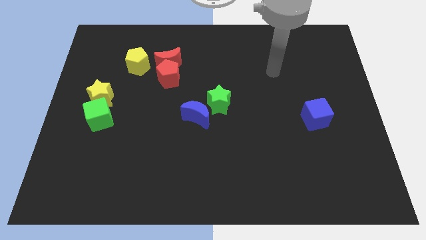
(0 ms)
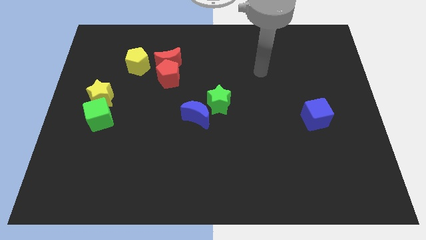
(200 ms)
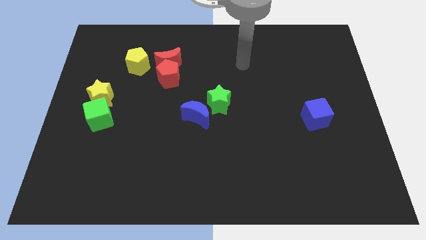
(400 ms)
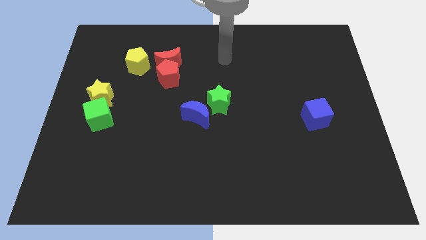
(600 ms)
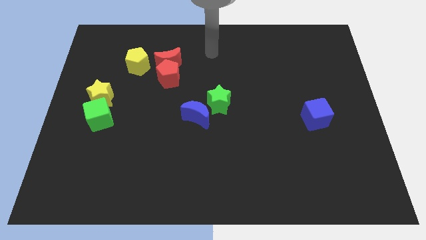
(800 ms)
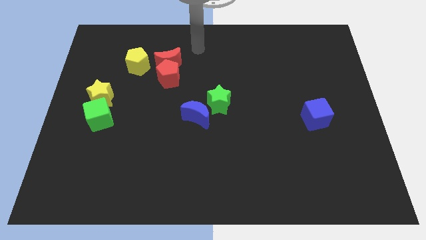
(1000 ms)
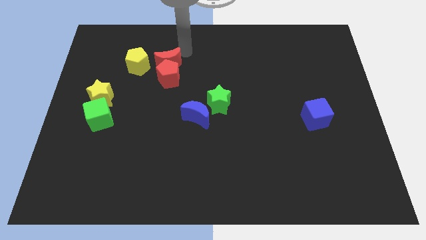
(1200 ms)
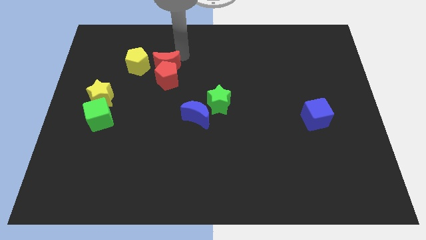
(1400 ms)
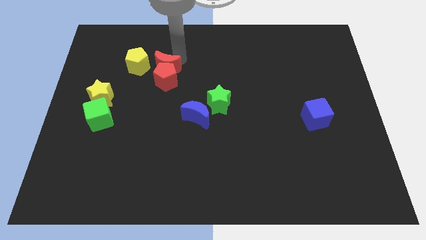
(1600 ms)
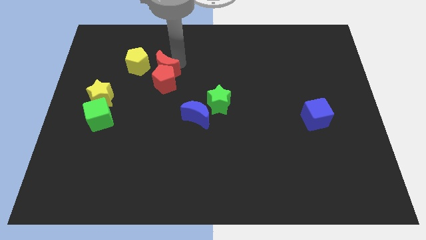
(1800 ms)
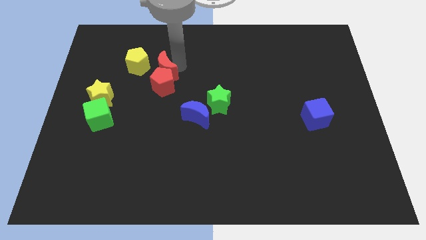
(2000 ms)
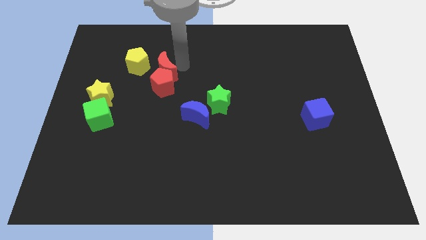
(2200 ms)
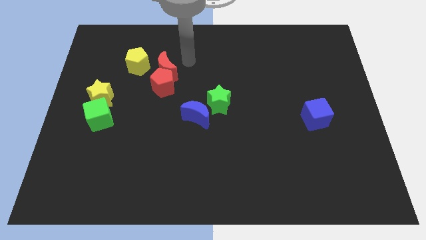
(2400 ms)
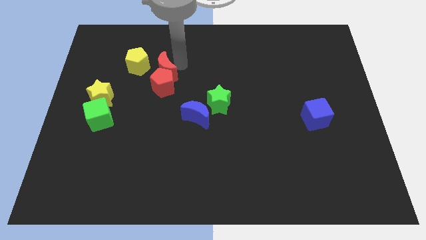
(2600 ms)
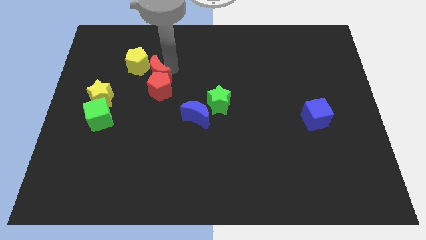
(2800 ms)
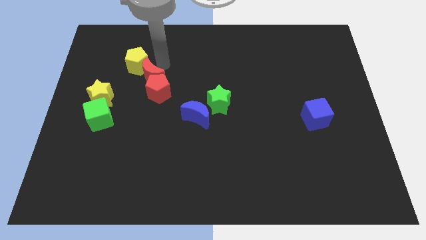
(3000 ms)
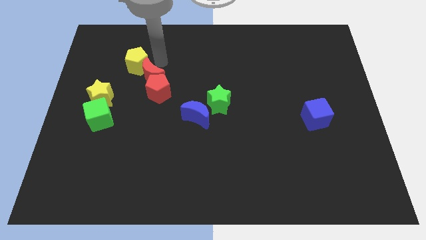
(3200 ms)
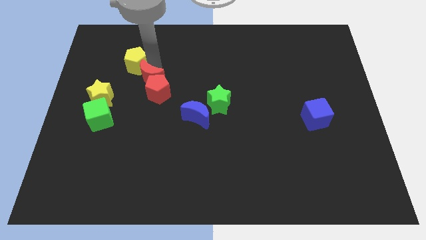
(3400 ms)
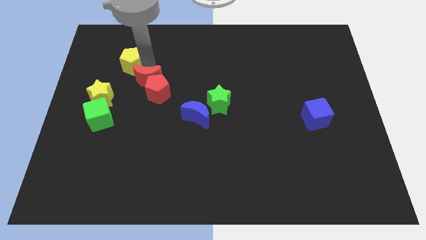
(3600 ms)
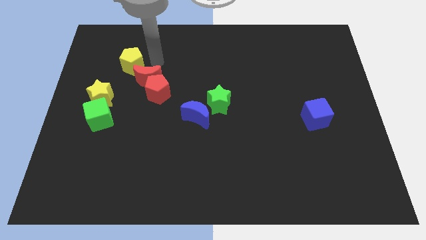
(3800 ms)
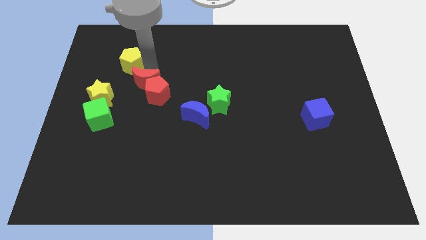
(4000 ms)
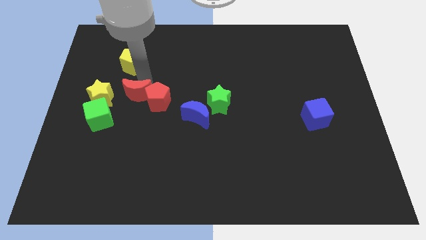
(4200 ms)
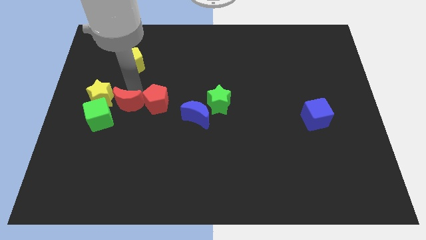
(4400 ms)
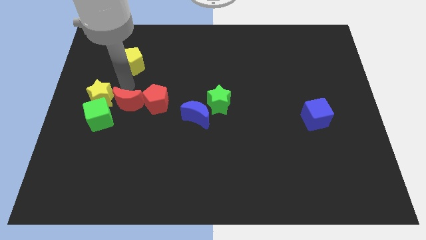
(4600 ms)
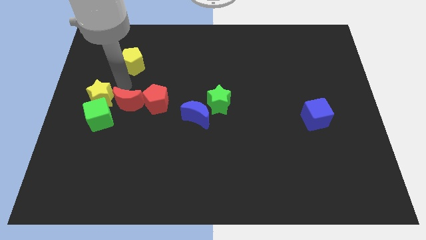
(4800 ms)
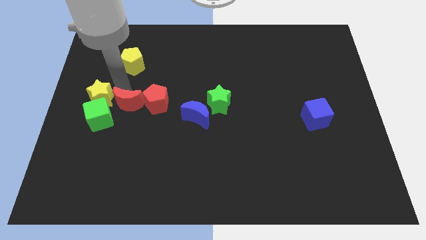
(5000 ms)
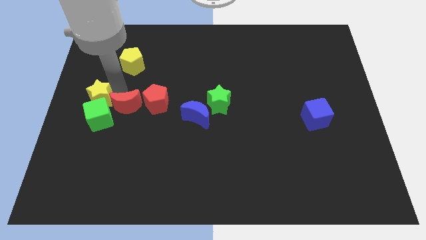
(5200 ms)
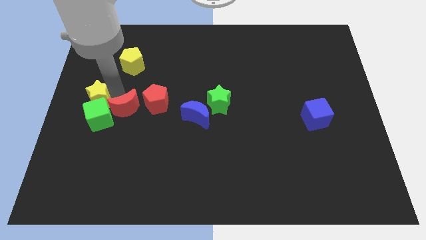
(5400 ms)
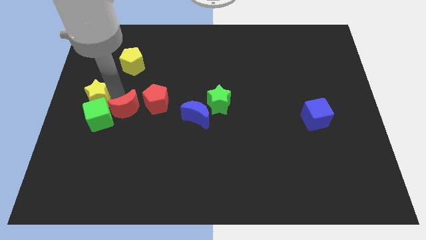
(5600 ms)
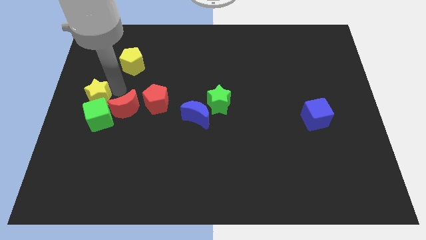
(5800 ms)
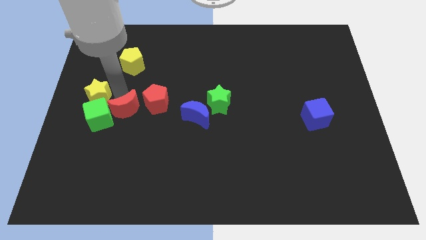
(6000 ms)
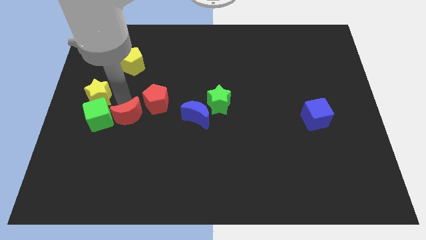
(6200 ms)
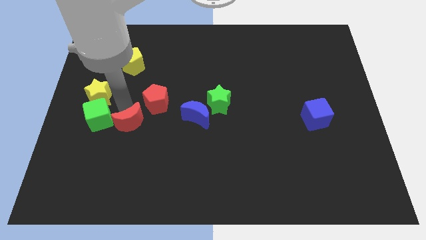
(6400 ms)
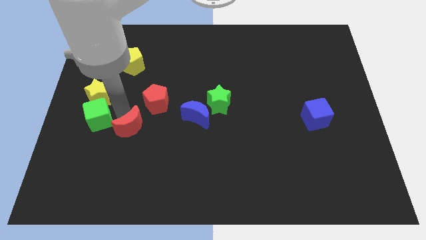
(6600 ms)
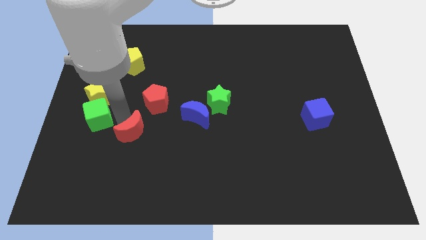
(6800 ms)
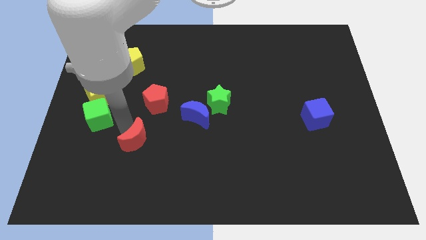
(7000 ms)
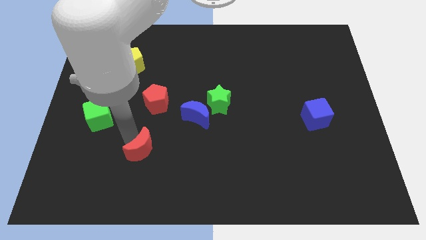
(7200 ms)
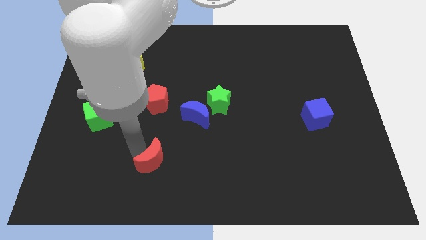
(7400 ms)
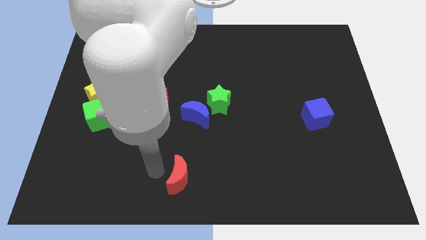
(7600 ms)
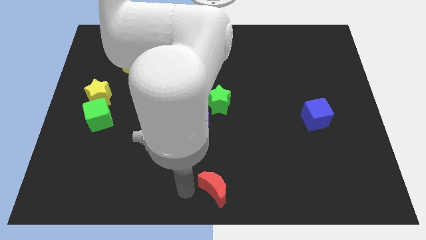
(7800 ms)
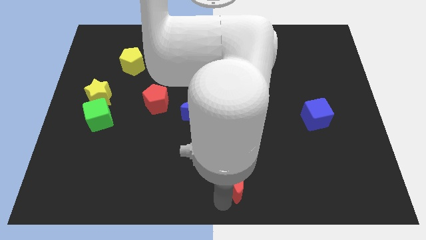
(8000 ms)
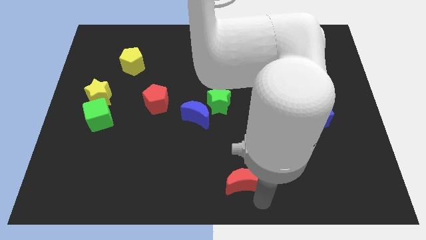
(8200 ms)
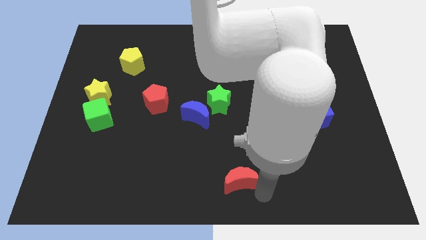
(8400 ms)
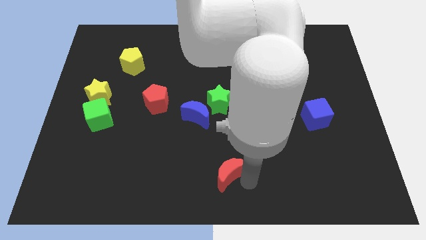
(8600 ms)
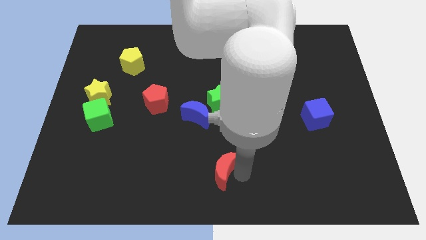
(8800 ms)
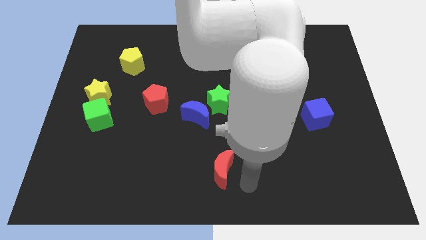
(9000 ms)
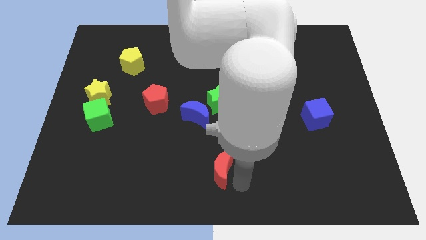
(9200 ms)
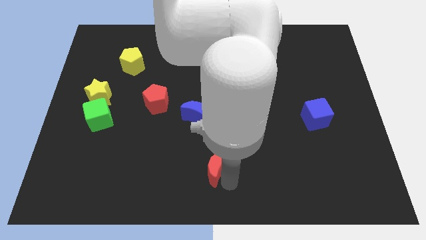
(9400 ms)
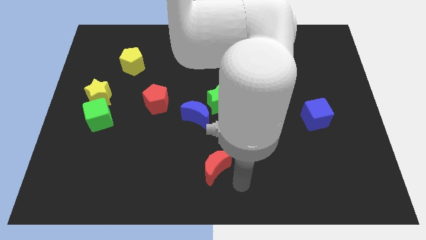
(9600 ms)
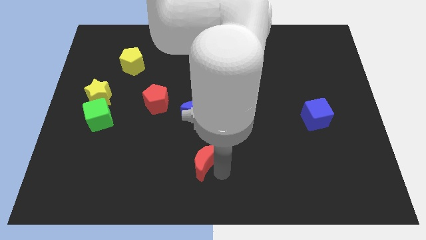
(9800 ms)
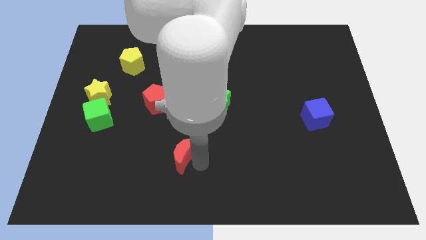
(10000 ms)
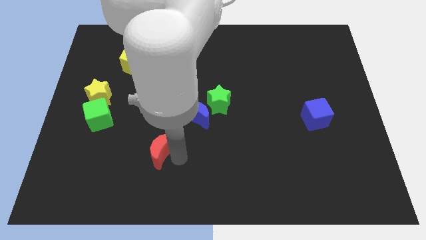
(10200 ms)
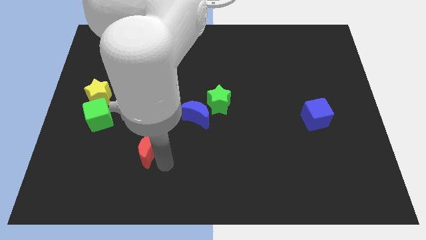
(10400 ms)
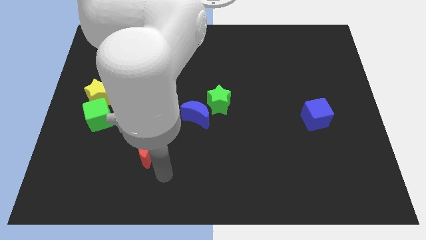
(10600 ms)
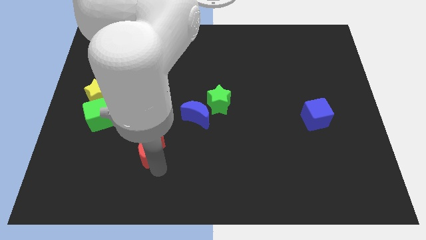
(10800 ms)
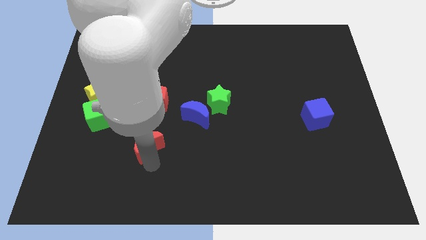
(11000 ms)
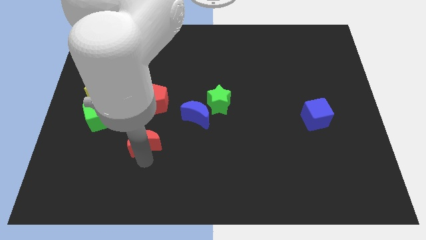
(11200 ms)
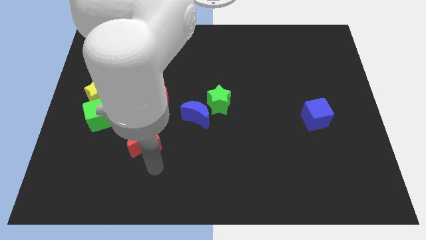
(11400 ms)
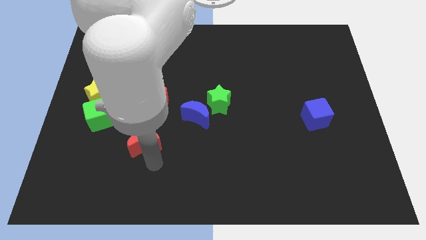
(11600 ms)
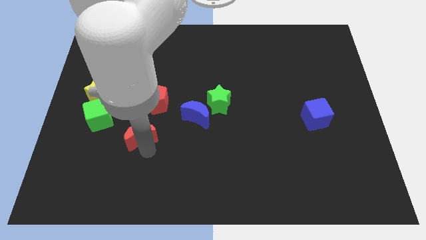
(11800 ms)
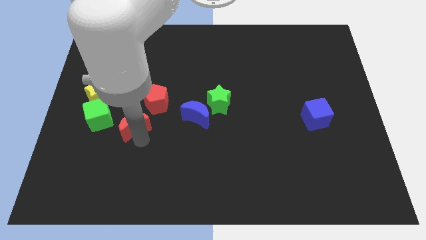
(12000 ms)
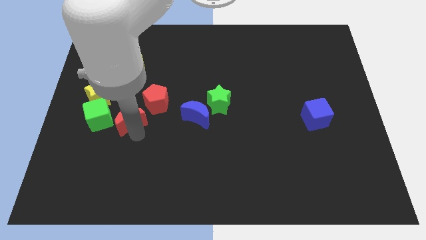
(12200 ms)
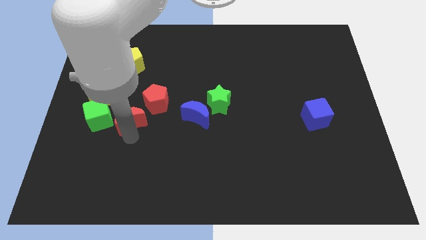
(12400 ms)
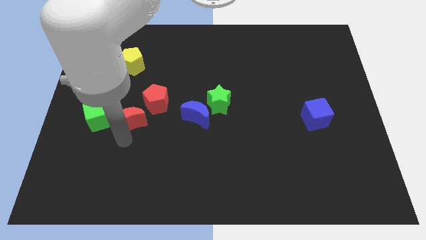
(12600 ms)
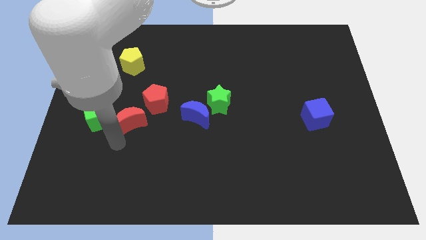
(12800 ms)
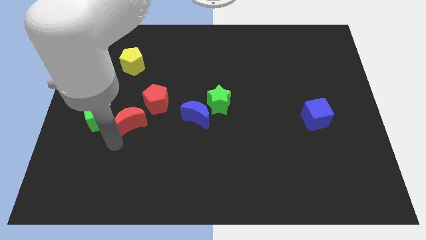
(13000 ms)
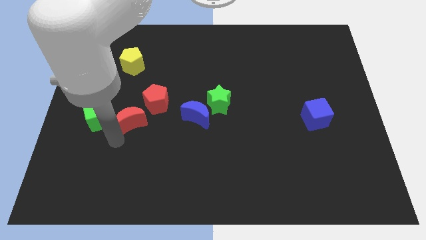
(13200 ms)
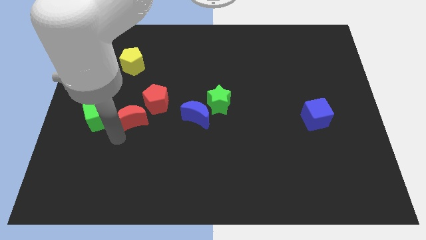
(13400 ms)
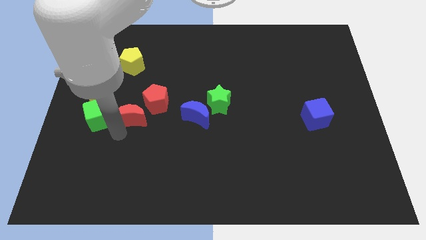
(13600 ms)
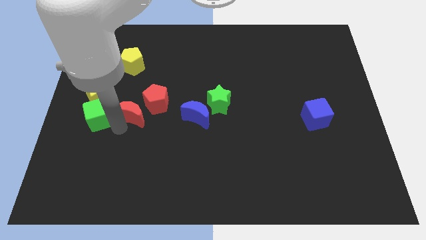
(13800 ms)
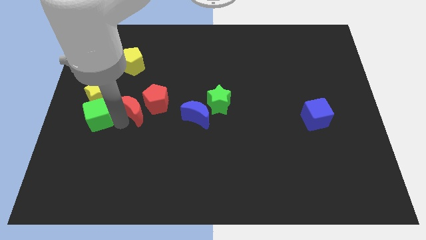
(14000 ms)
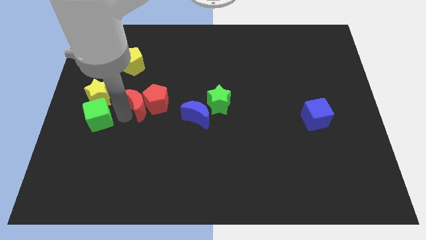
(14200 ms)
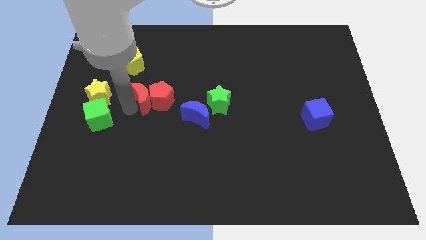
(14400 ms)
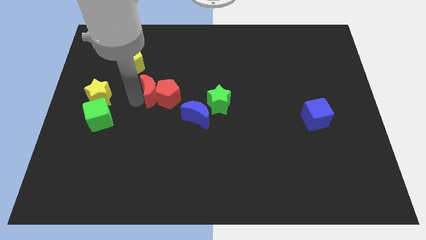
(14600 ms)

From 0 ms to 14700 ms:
put the red moon to the bottom left side of the red pentagon
